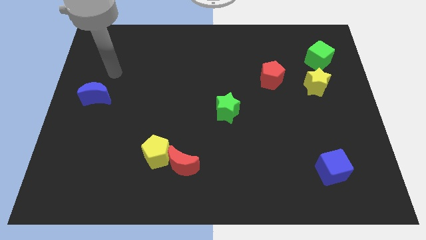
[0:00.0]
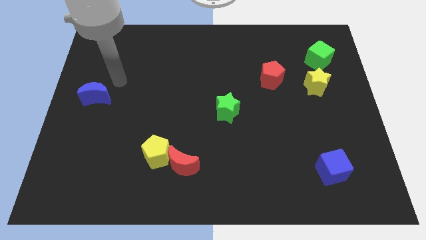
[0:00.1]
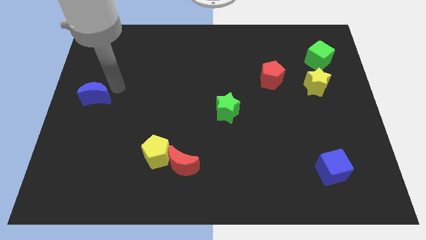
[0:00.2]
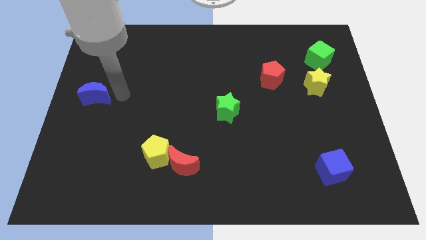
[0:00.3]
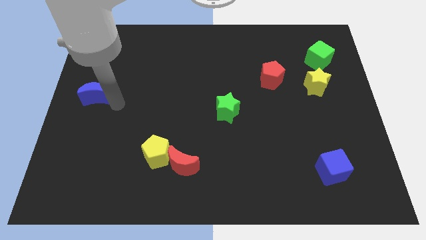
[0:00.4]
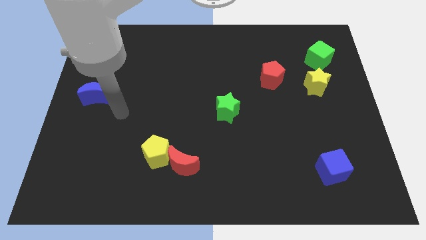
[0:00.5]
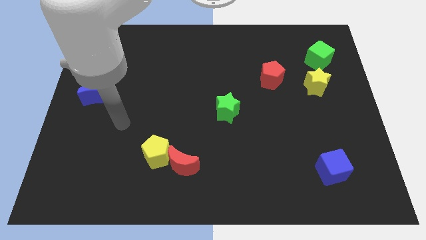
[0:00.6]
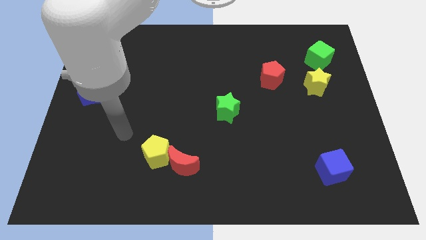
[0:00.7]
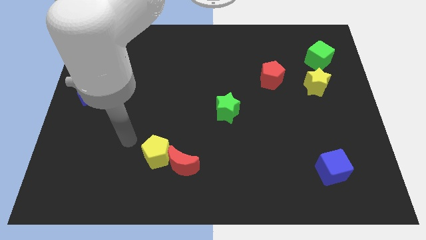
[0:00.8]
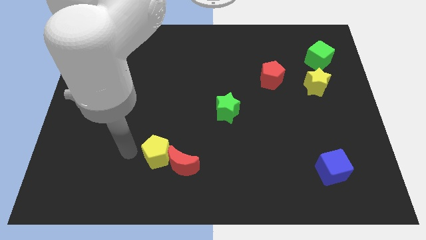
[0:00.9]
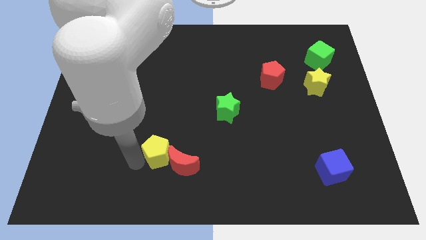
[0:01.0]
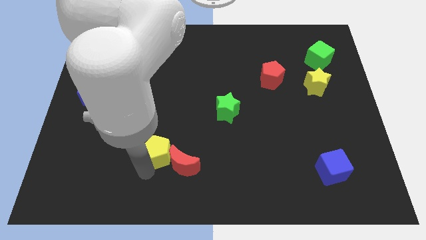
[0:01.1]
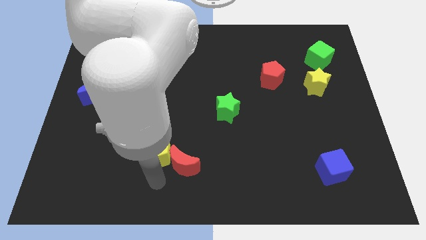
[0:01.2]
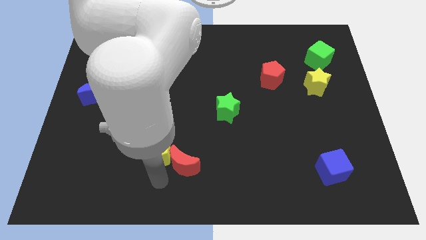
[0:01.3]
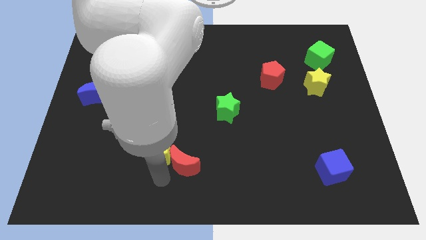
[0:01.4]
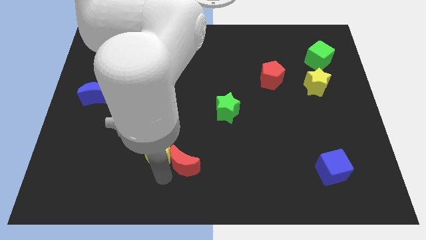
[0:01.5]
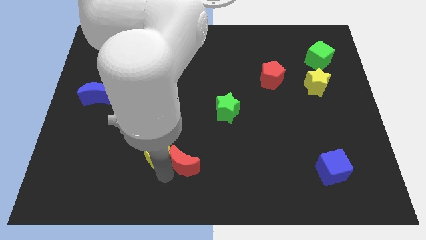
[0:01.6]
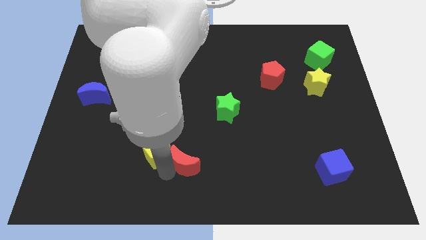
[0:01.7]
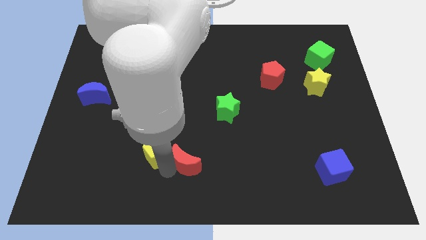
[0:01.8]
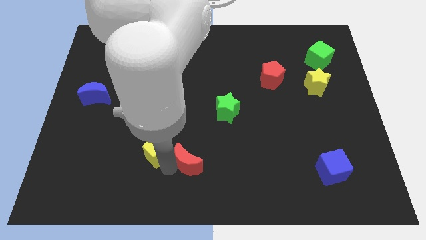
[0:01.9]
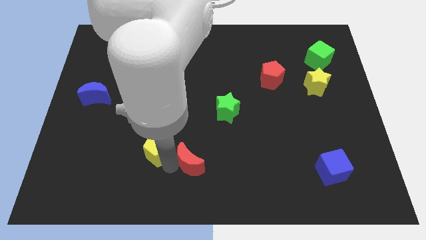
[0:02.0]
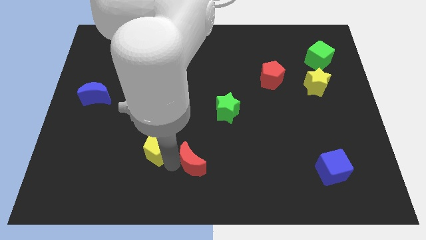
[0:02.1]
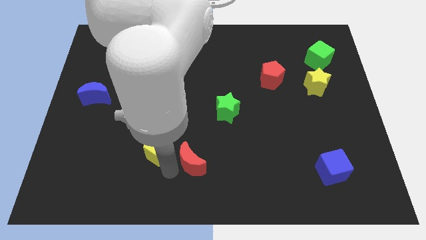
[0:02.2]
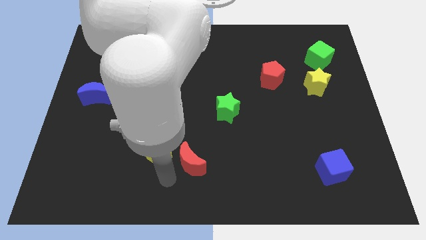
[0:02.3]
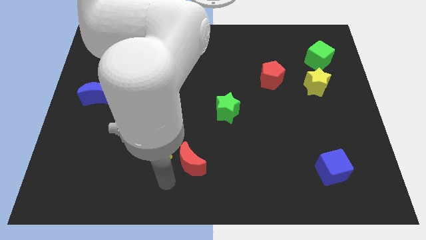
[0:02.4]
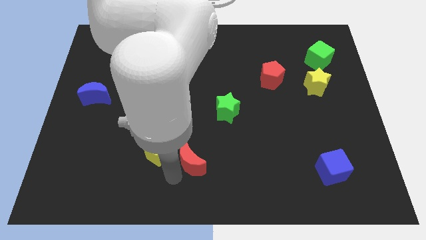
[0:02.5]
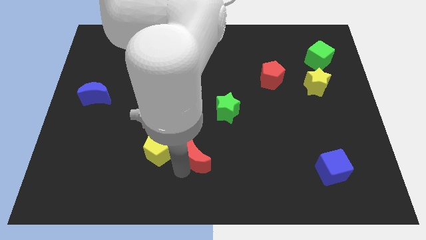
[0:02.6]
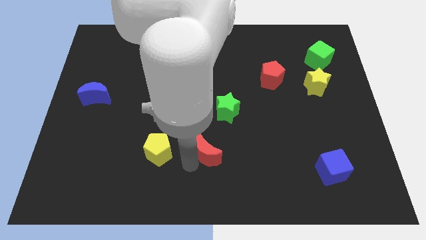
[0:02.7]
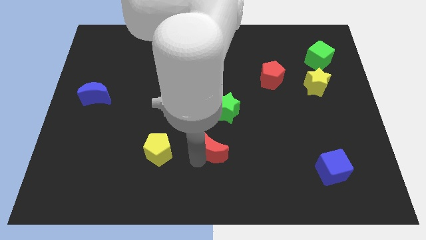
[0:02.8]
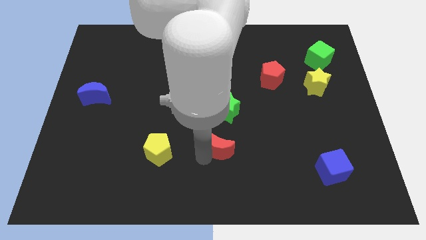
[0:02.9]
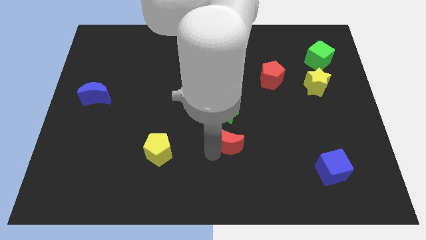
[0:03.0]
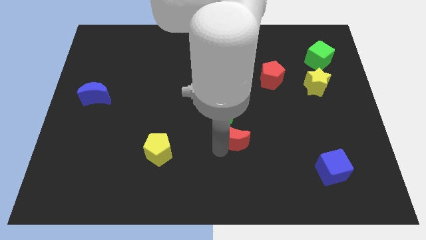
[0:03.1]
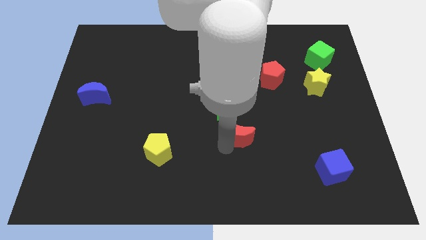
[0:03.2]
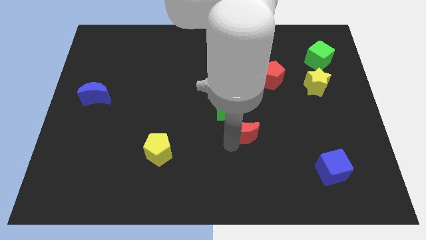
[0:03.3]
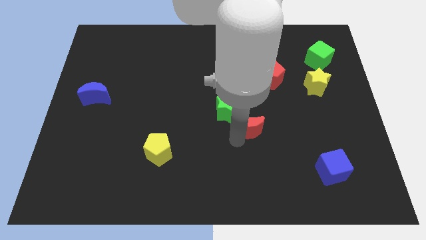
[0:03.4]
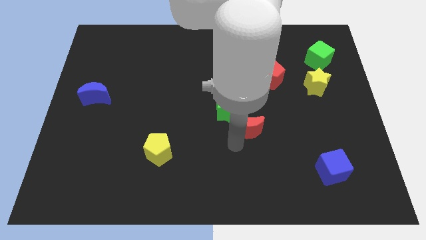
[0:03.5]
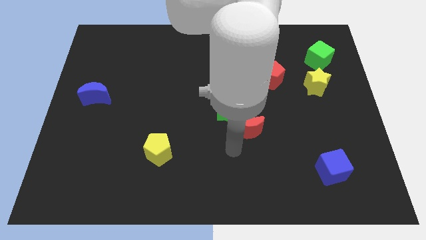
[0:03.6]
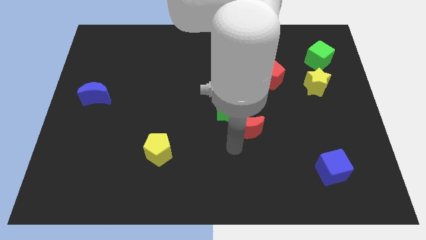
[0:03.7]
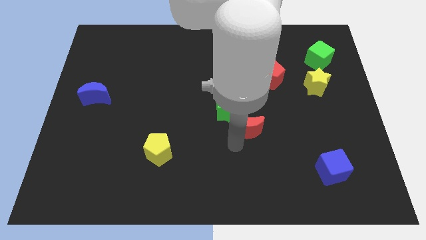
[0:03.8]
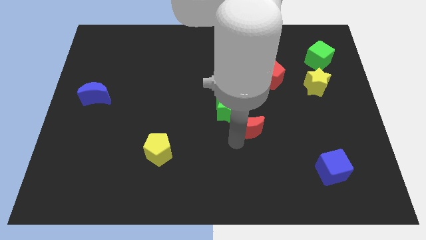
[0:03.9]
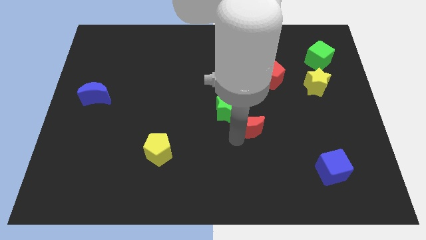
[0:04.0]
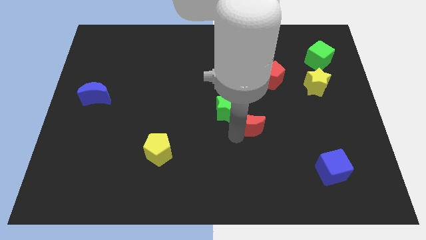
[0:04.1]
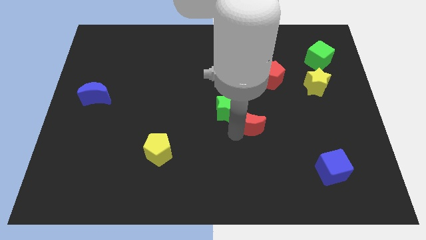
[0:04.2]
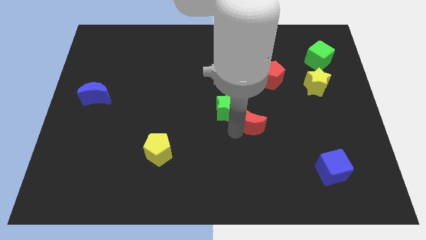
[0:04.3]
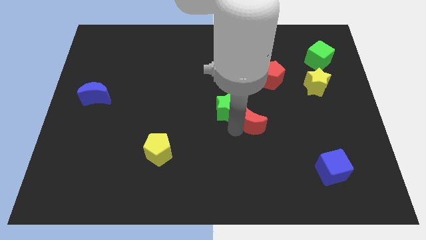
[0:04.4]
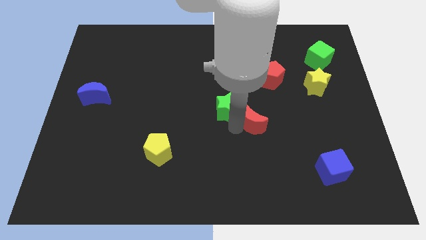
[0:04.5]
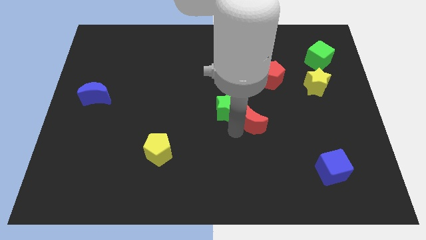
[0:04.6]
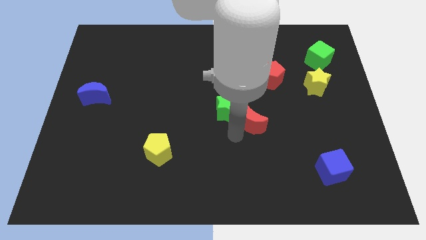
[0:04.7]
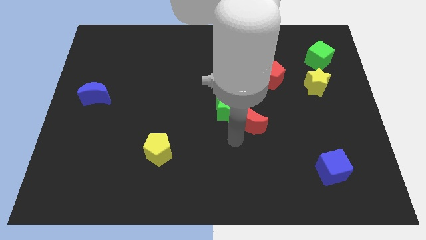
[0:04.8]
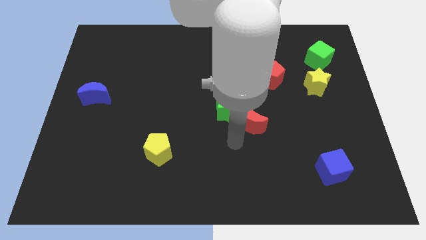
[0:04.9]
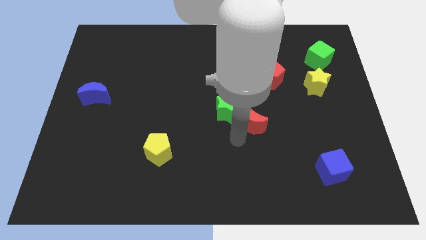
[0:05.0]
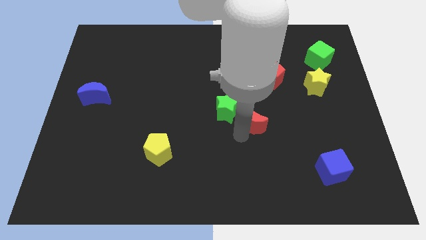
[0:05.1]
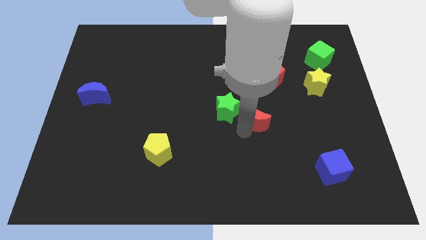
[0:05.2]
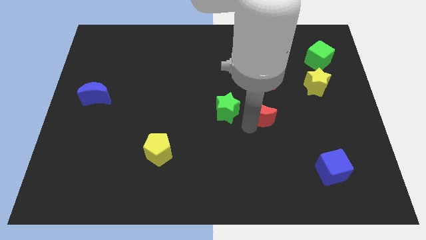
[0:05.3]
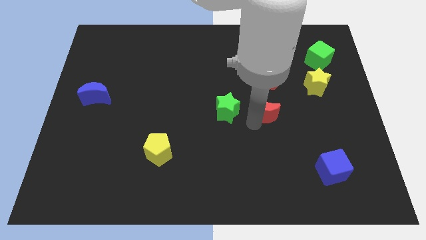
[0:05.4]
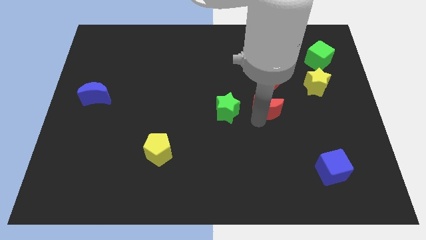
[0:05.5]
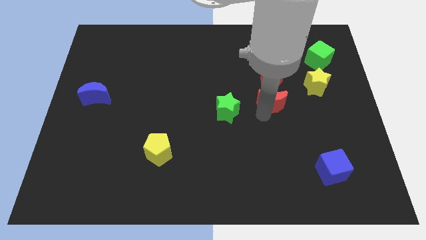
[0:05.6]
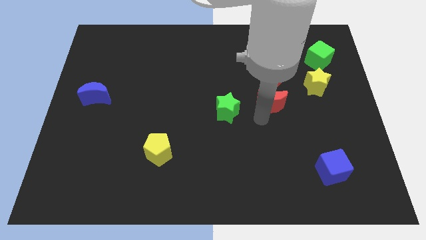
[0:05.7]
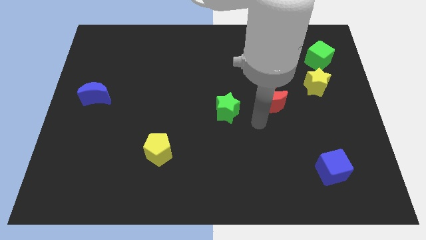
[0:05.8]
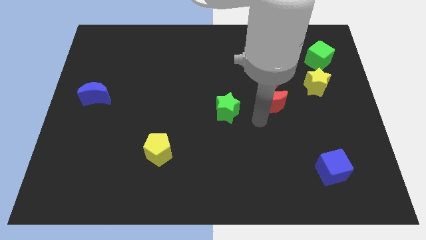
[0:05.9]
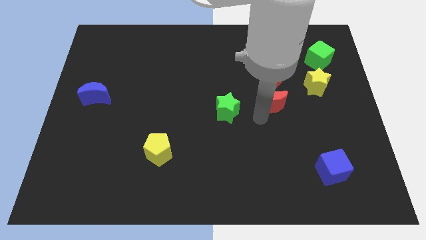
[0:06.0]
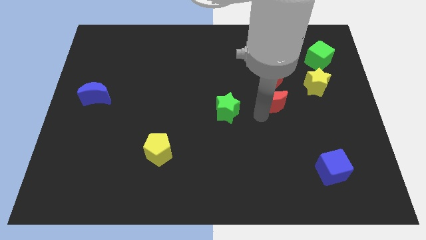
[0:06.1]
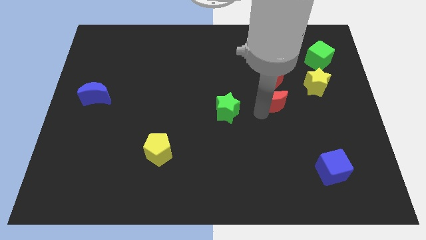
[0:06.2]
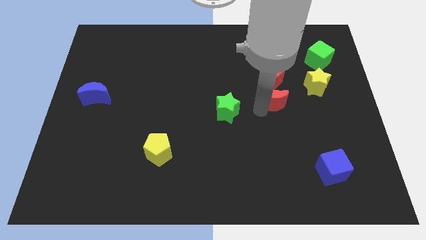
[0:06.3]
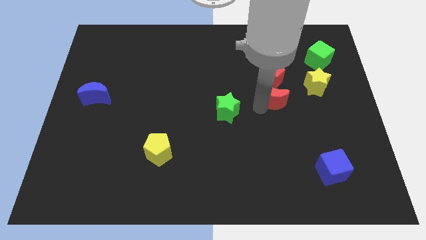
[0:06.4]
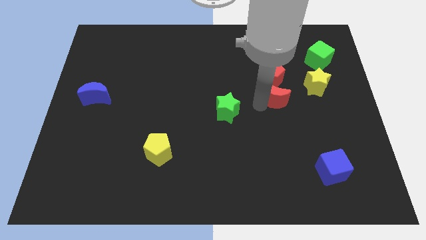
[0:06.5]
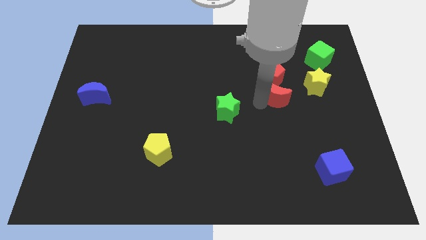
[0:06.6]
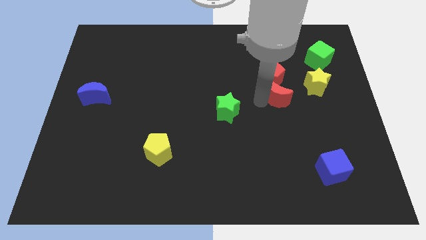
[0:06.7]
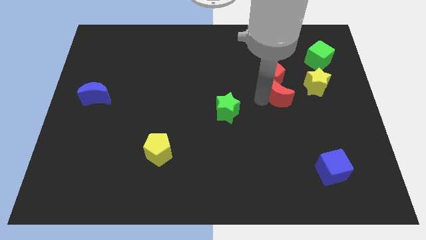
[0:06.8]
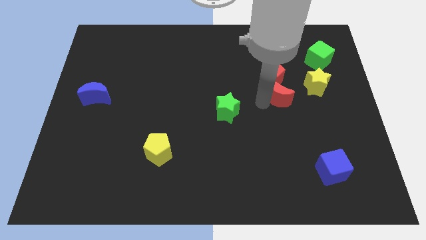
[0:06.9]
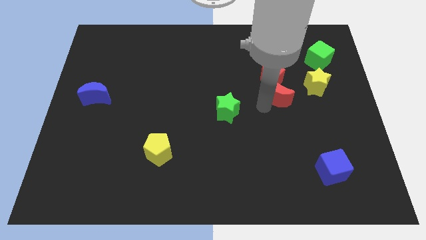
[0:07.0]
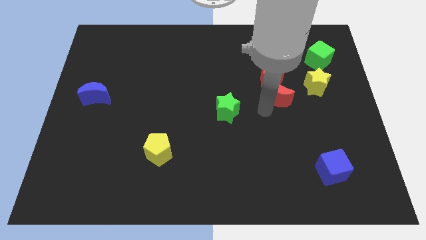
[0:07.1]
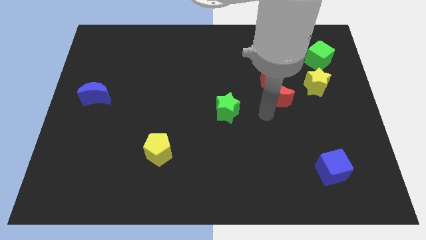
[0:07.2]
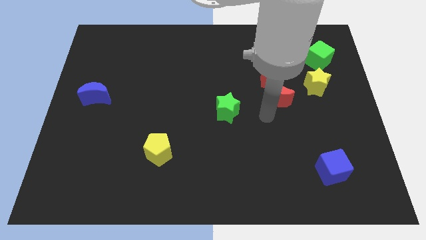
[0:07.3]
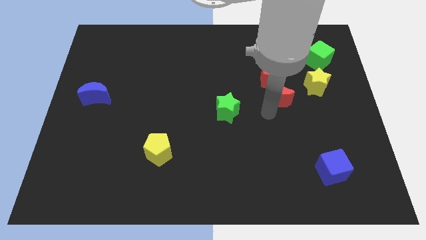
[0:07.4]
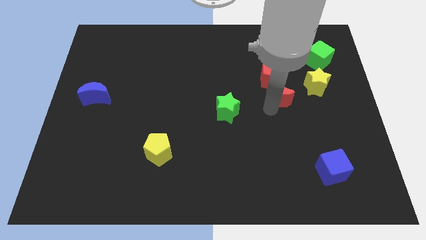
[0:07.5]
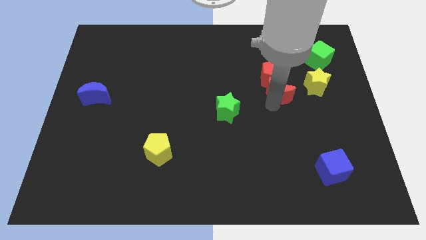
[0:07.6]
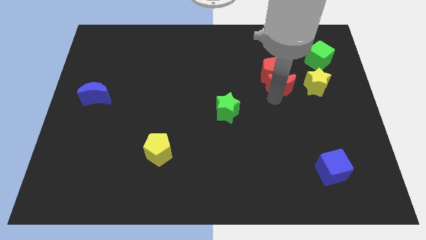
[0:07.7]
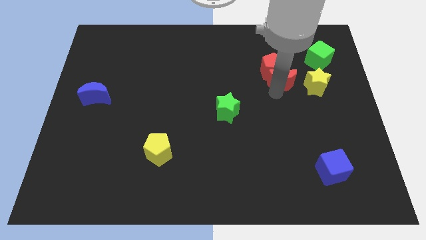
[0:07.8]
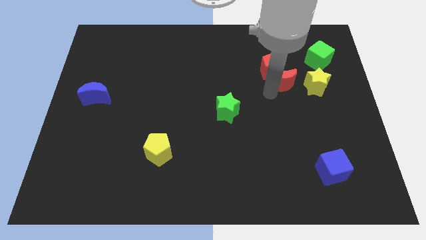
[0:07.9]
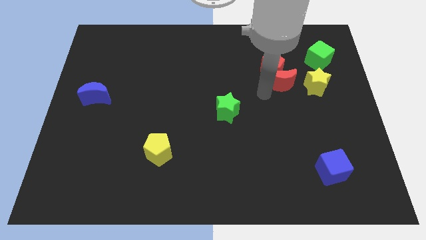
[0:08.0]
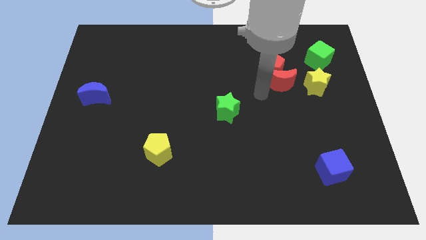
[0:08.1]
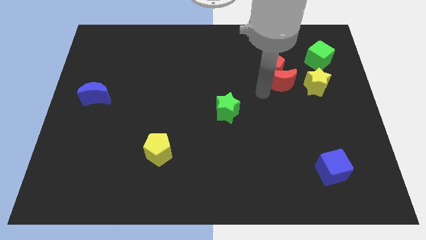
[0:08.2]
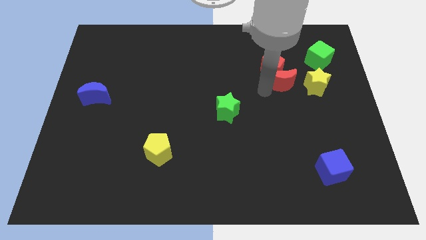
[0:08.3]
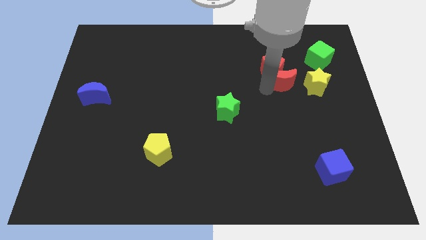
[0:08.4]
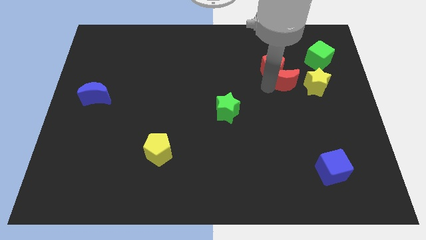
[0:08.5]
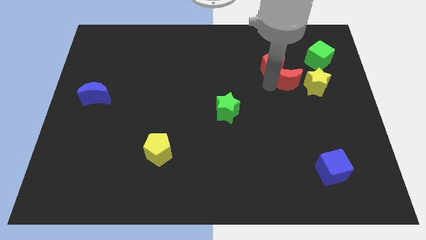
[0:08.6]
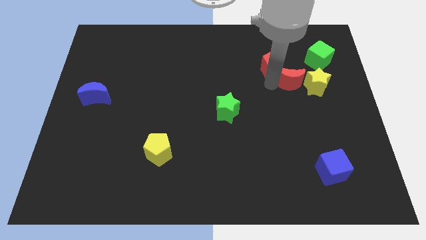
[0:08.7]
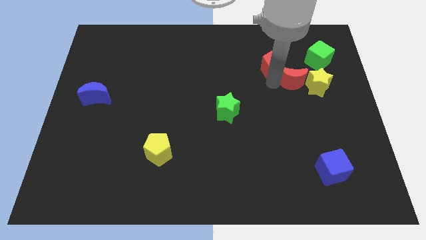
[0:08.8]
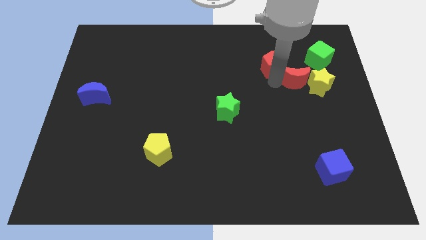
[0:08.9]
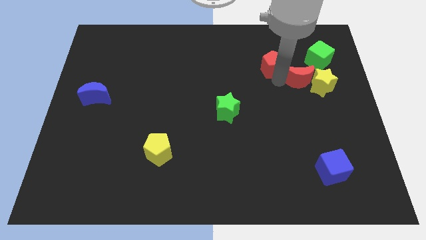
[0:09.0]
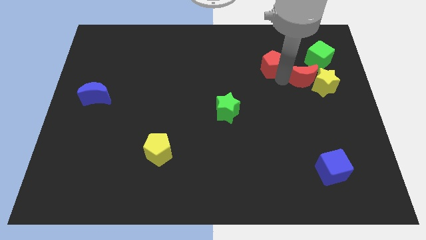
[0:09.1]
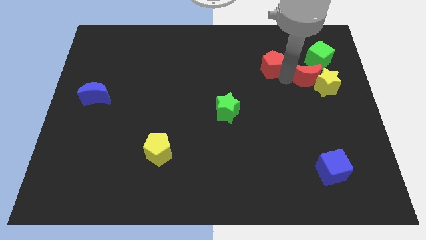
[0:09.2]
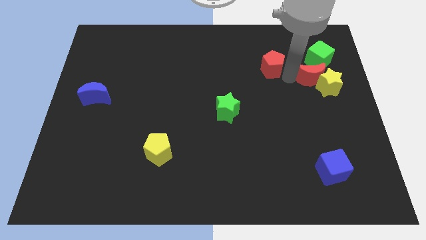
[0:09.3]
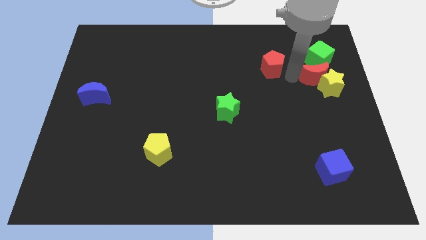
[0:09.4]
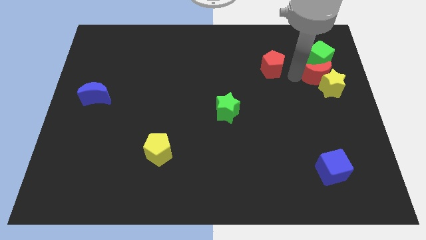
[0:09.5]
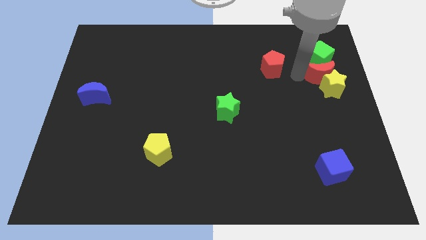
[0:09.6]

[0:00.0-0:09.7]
put the red moon to the green cube
